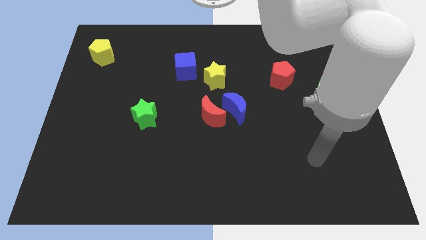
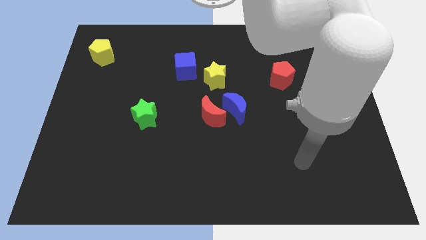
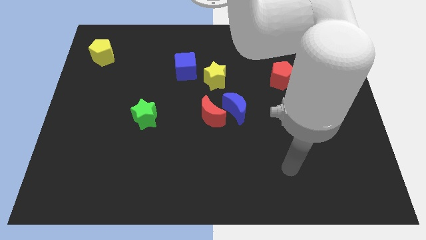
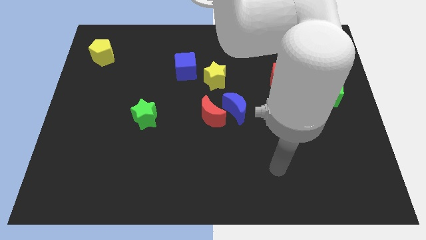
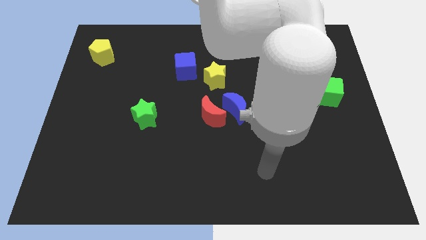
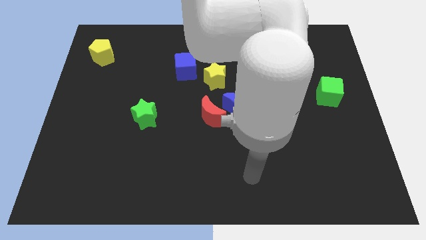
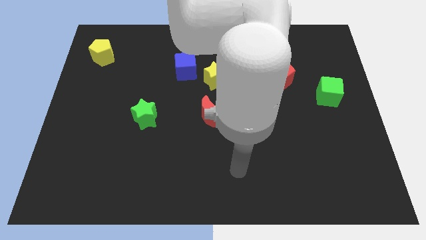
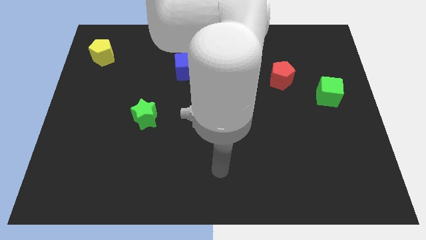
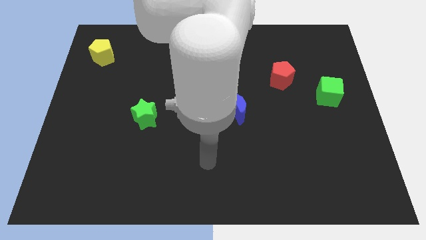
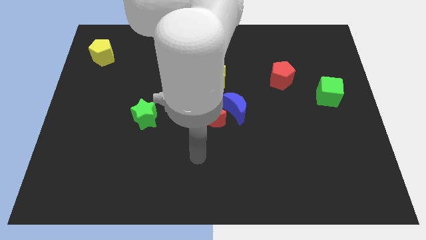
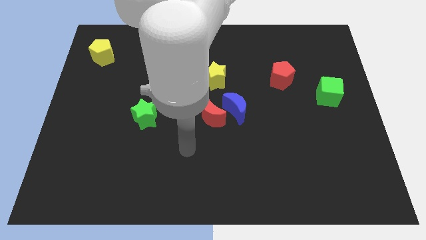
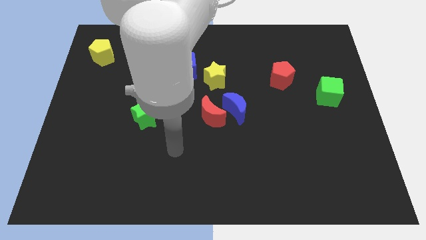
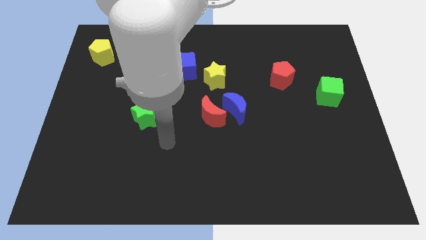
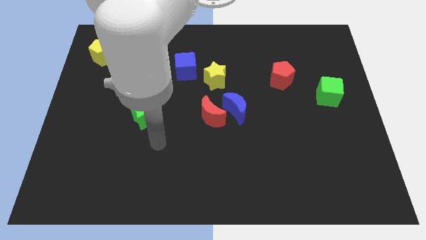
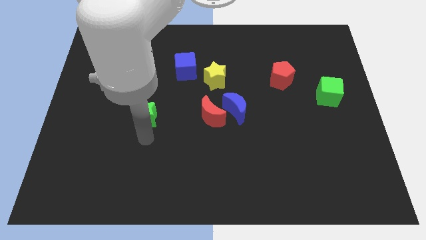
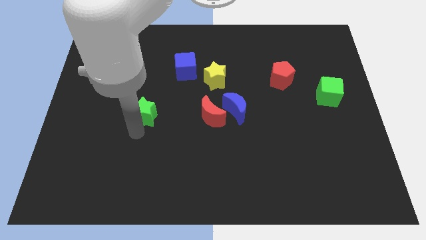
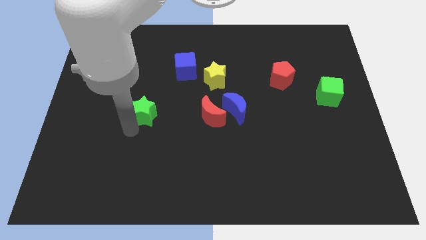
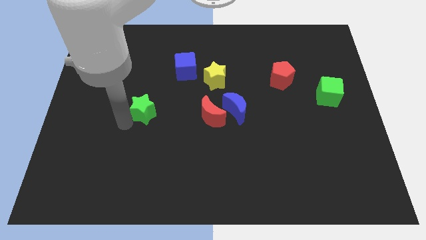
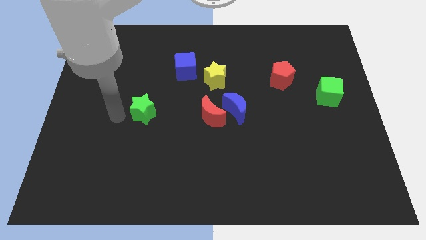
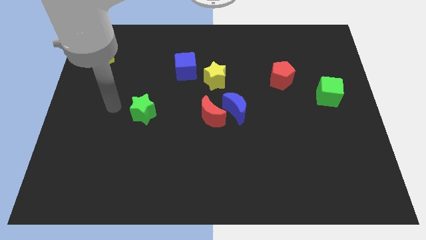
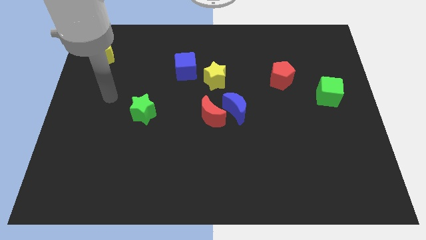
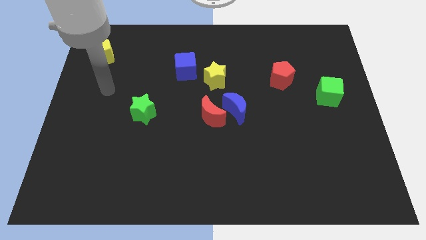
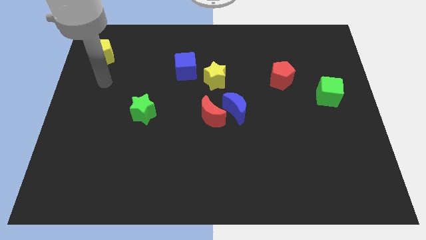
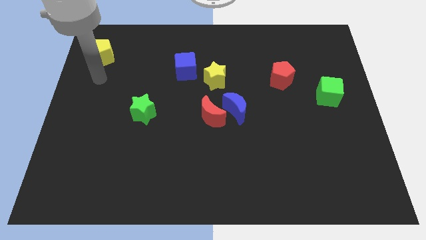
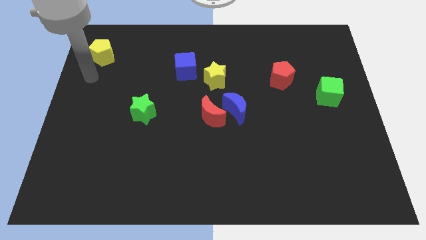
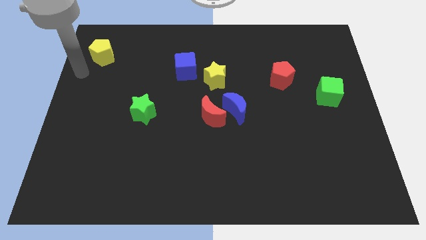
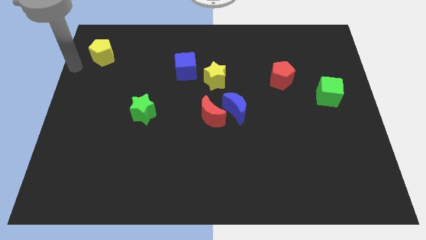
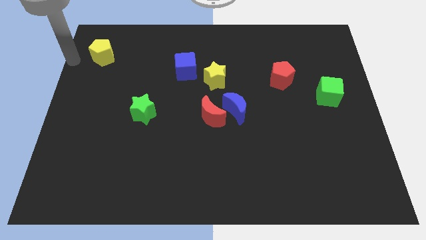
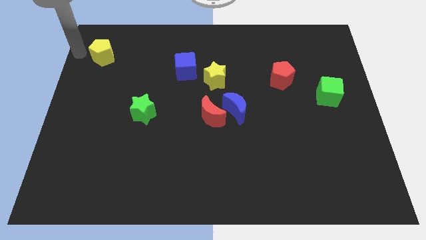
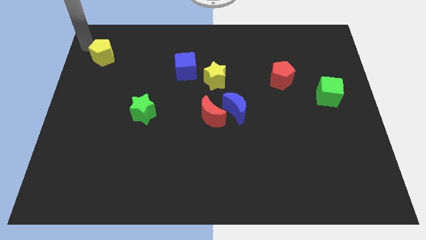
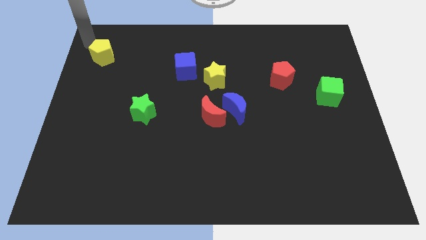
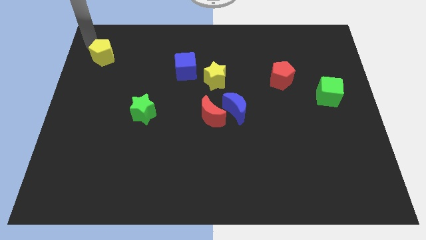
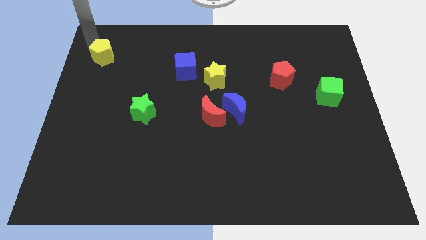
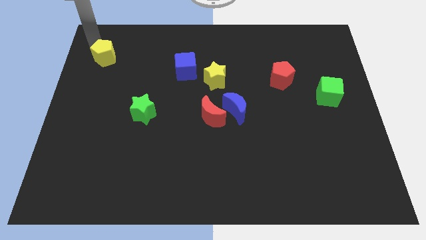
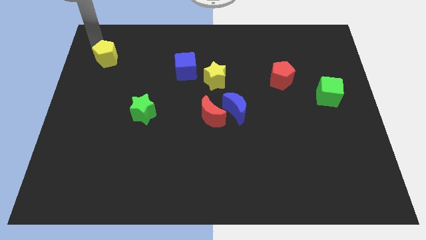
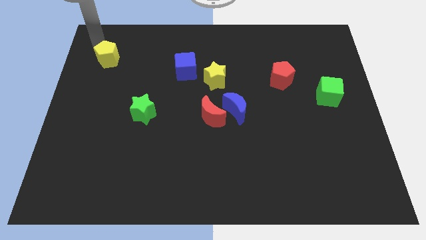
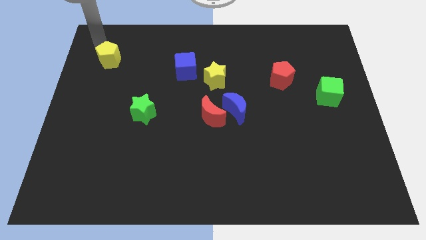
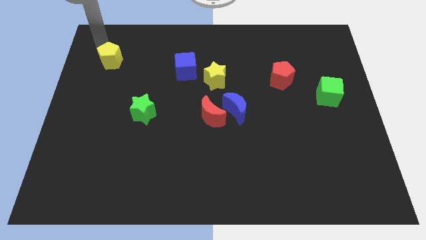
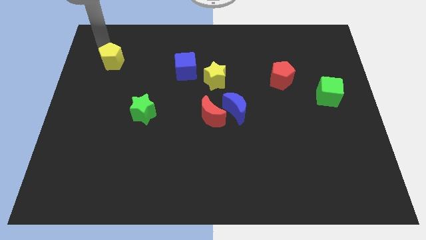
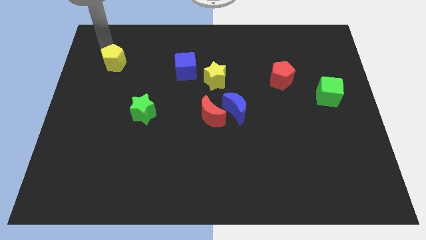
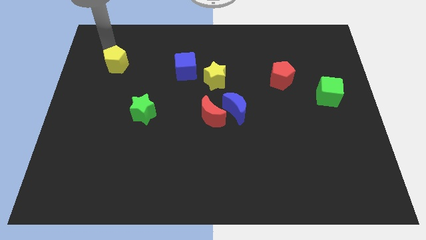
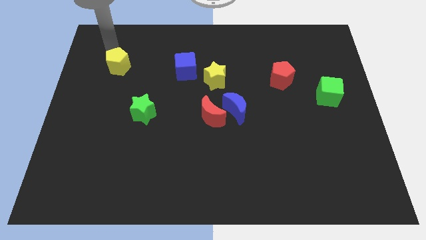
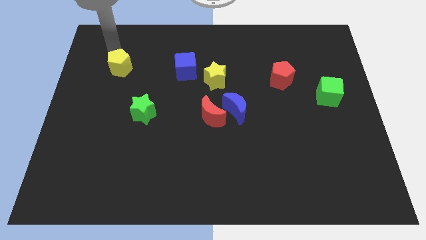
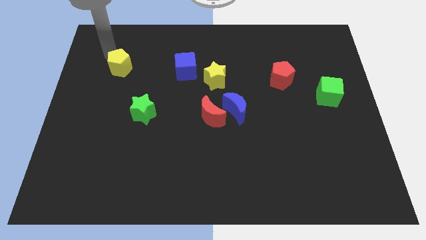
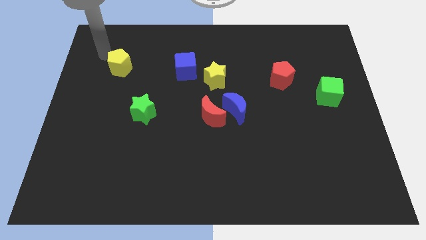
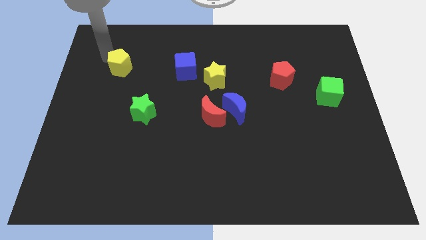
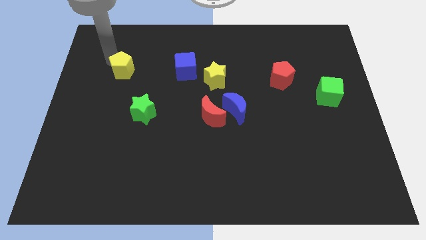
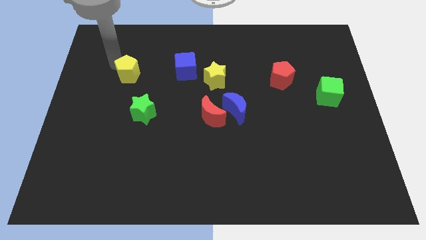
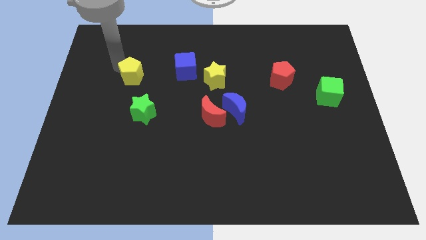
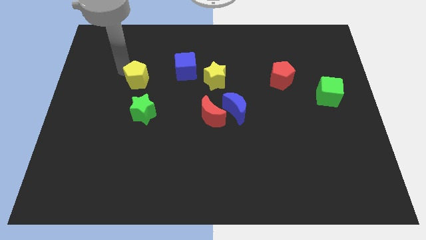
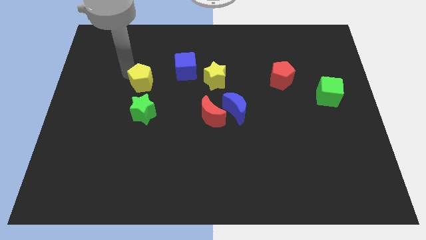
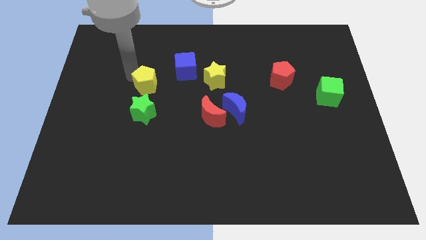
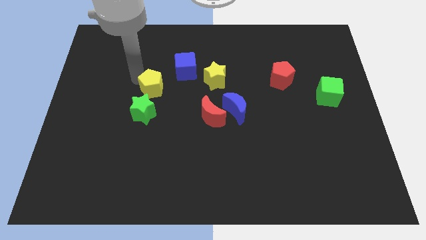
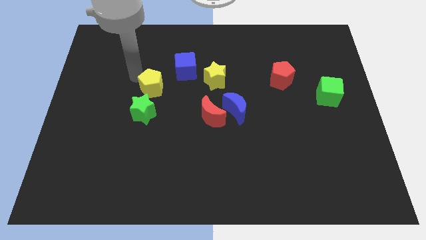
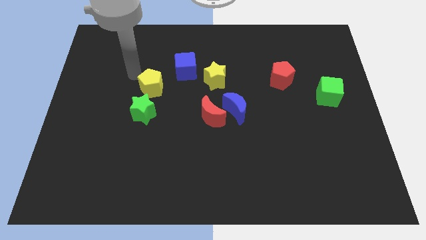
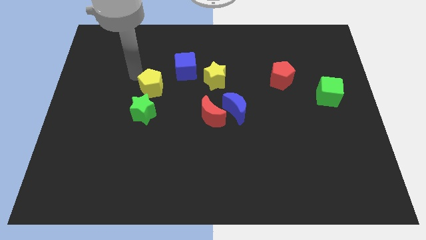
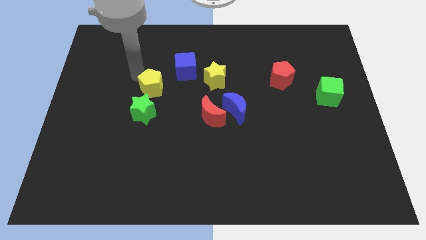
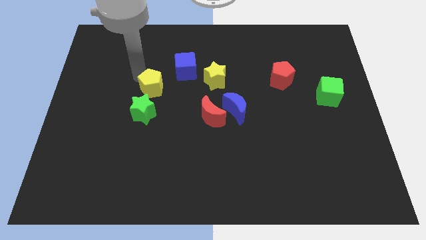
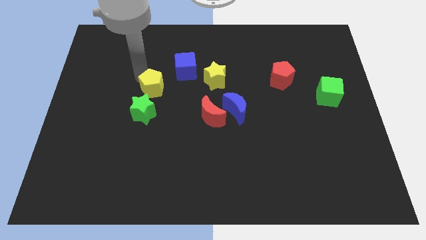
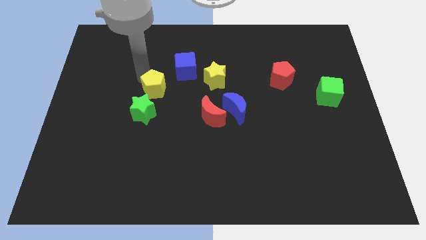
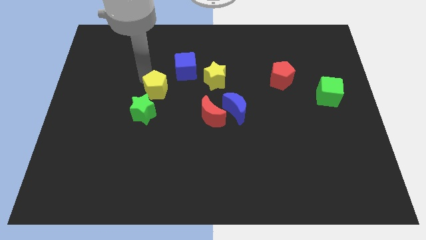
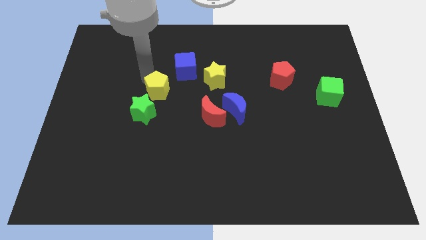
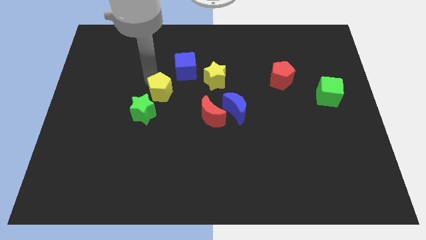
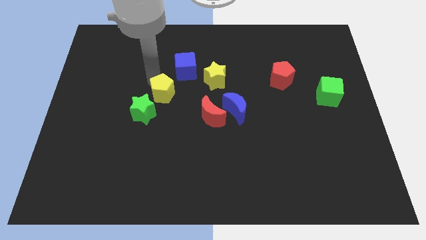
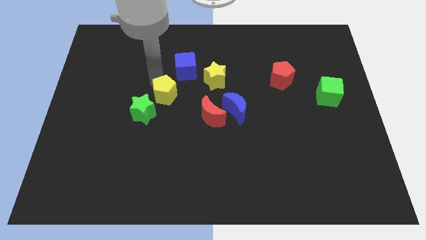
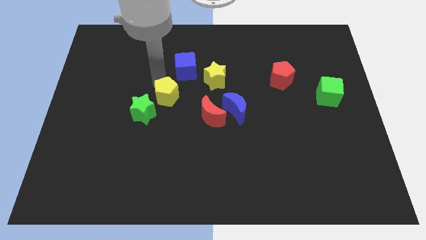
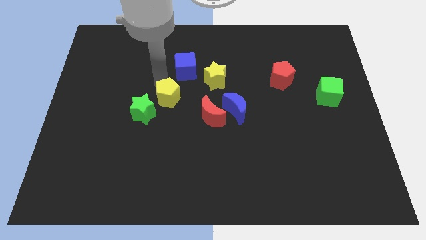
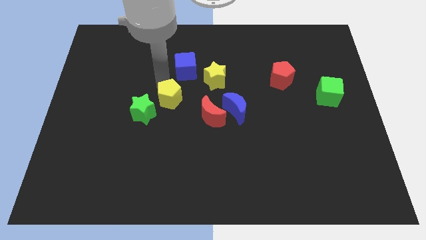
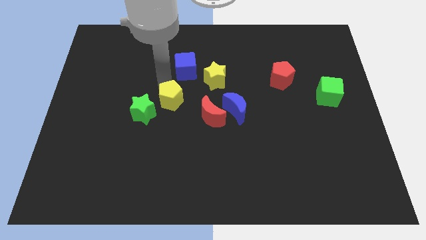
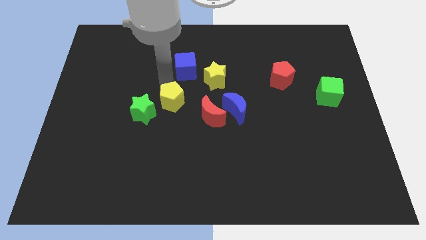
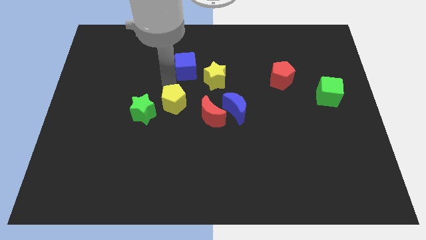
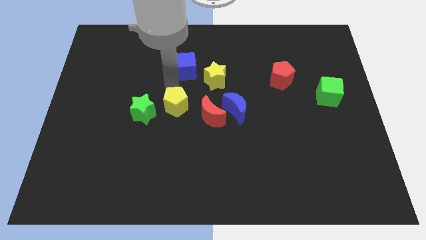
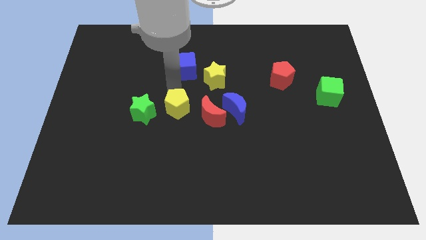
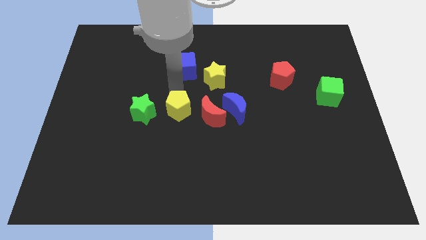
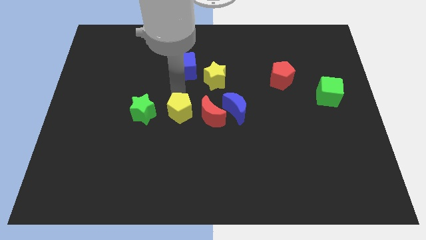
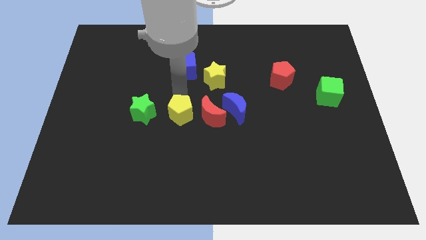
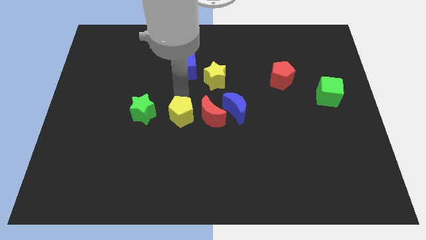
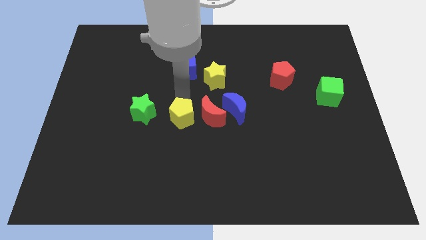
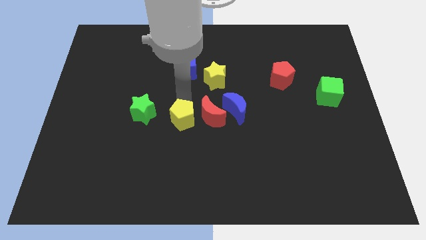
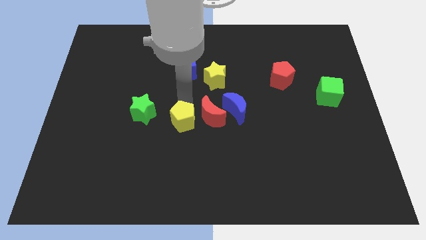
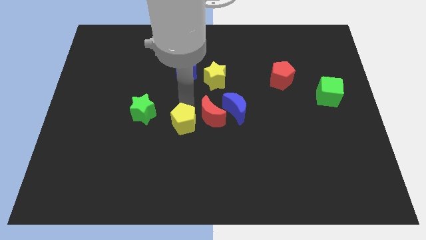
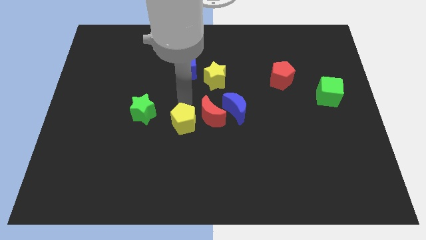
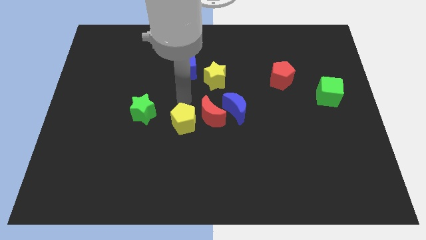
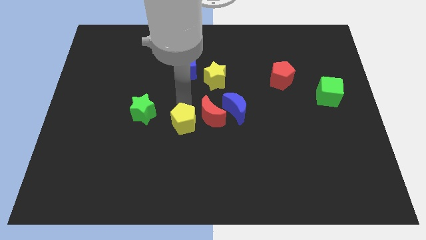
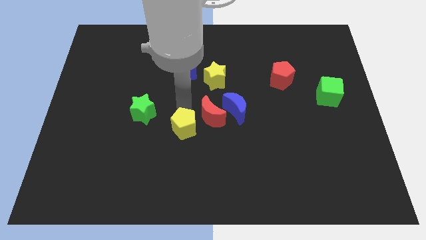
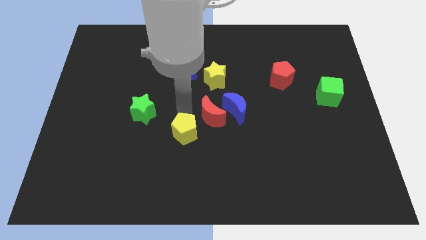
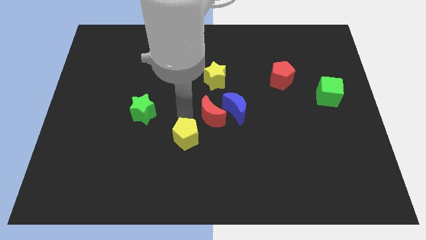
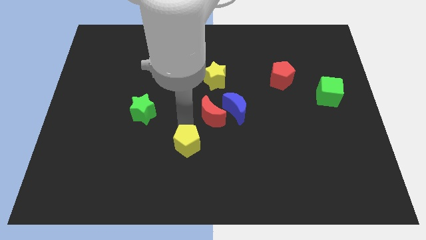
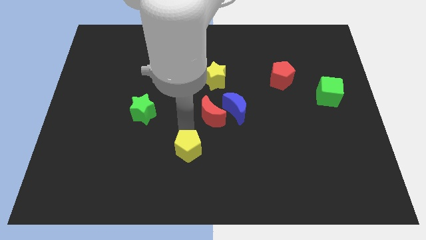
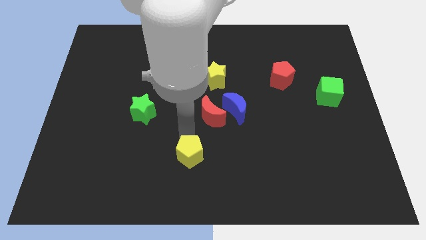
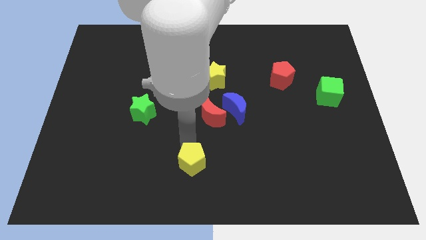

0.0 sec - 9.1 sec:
move the yellow pentagon to the bottom
